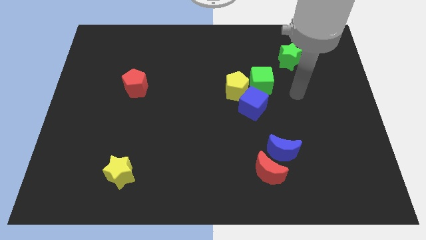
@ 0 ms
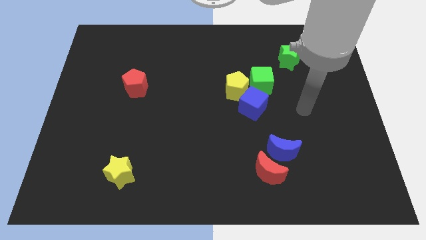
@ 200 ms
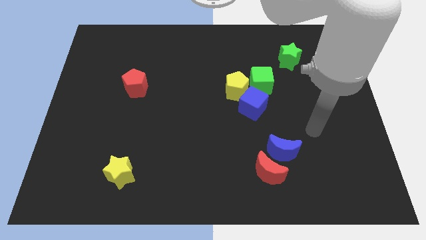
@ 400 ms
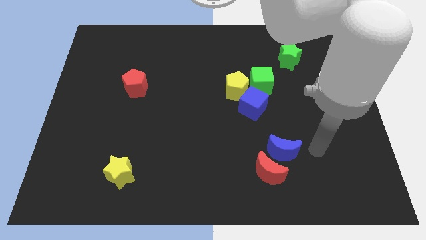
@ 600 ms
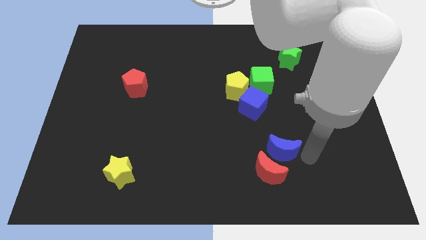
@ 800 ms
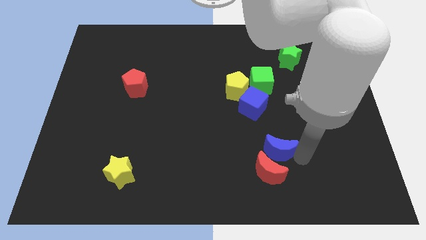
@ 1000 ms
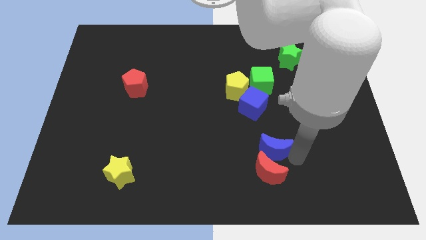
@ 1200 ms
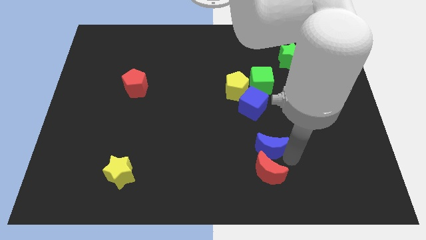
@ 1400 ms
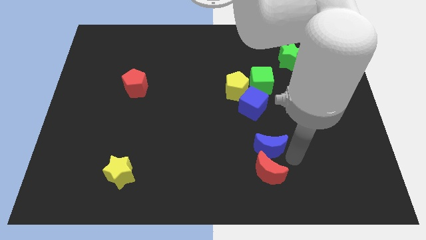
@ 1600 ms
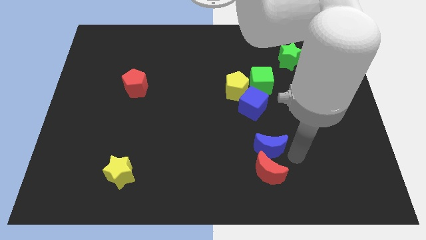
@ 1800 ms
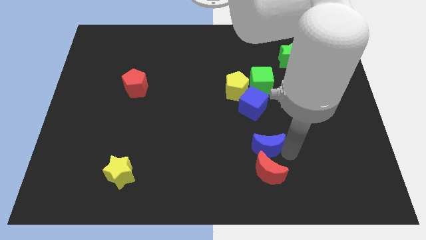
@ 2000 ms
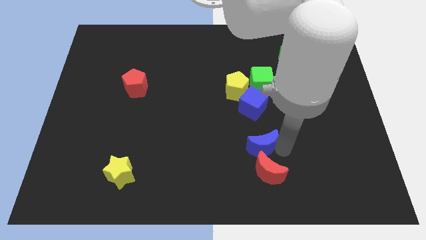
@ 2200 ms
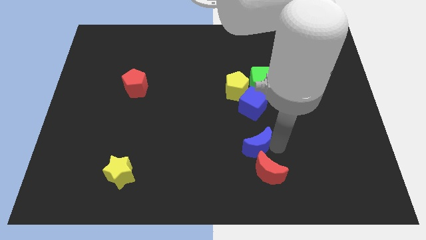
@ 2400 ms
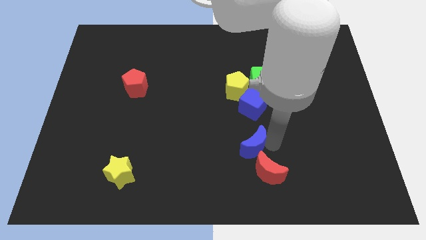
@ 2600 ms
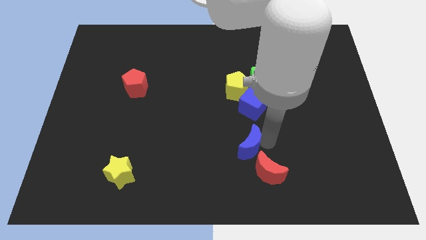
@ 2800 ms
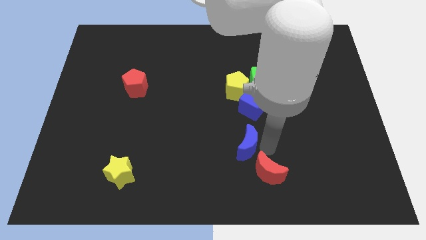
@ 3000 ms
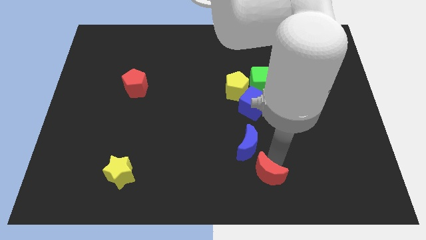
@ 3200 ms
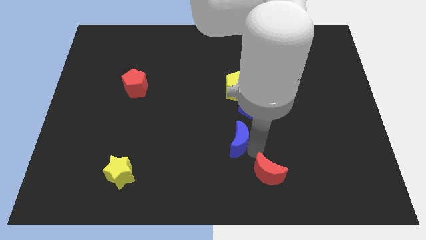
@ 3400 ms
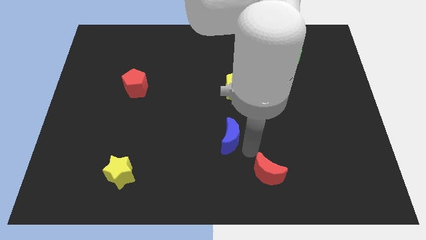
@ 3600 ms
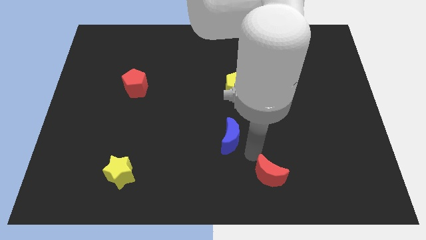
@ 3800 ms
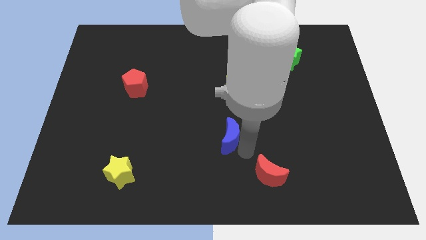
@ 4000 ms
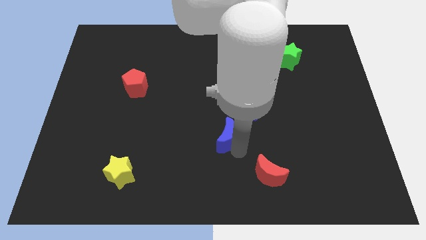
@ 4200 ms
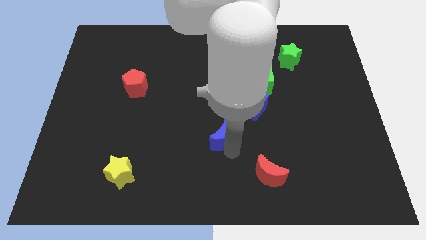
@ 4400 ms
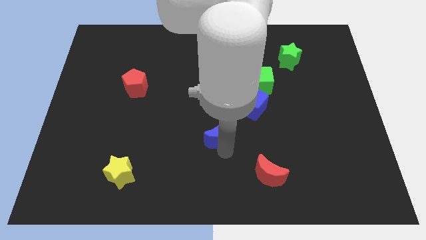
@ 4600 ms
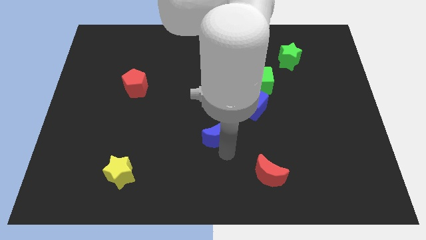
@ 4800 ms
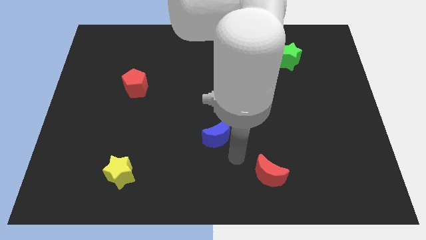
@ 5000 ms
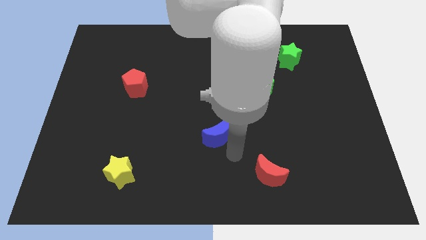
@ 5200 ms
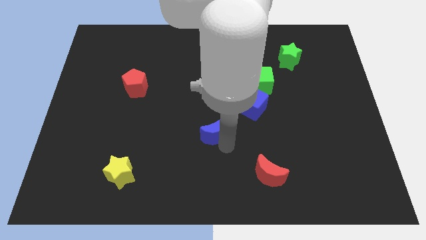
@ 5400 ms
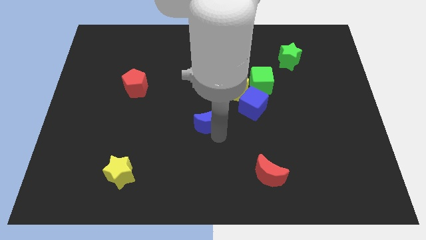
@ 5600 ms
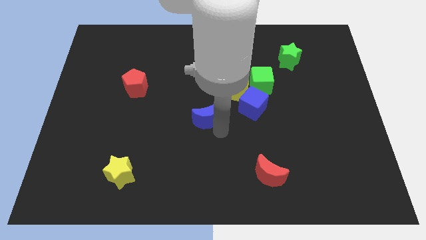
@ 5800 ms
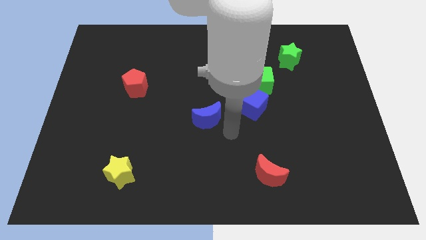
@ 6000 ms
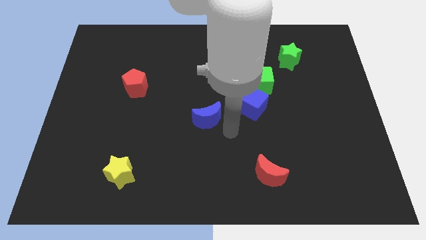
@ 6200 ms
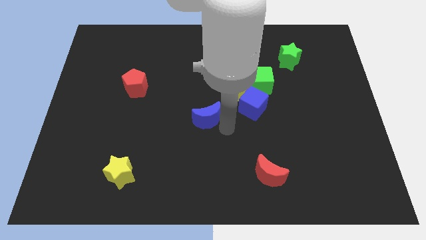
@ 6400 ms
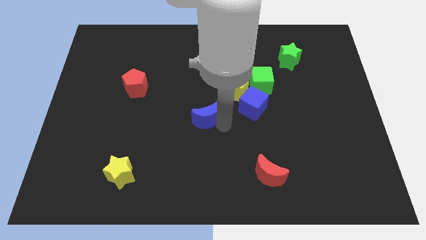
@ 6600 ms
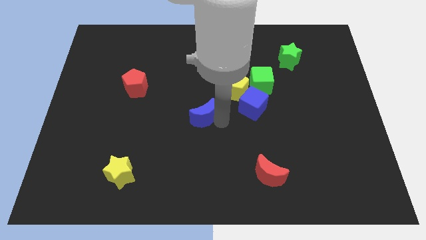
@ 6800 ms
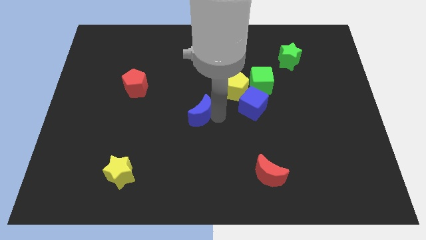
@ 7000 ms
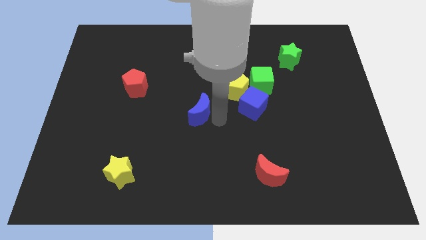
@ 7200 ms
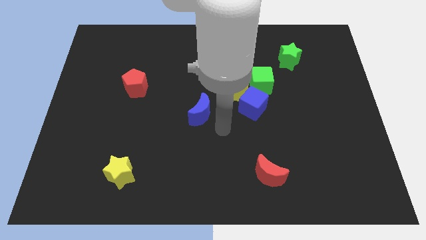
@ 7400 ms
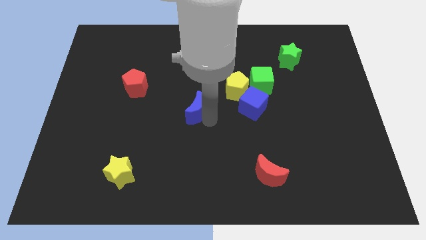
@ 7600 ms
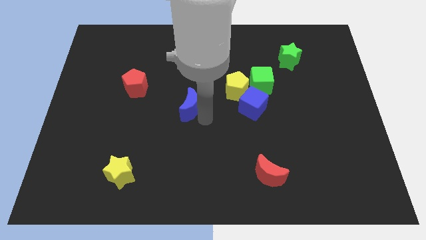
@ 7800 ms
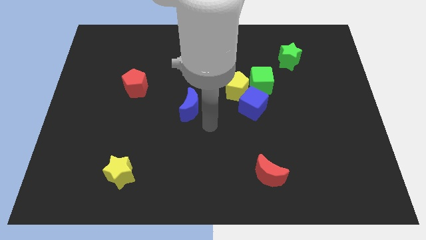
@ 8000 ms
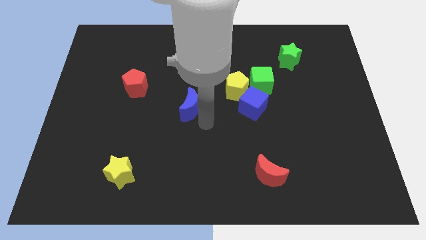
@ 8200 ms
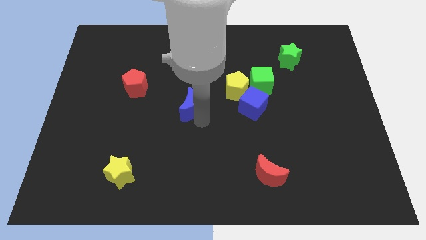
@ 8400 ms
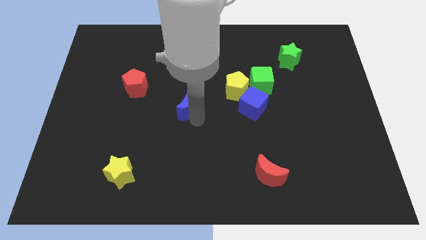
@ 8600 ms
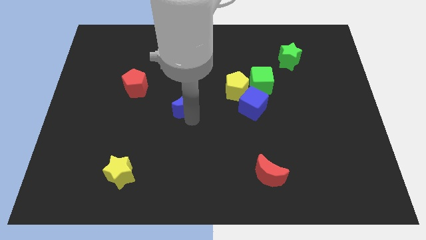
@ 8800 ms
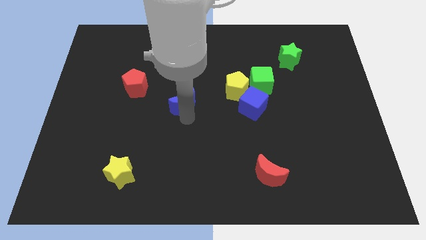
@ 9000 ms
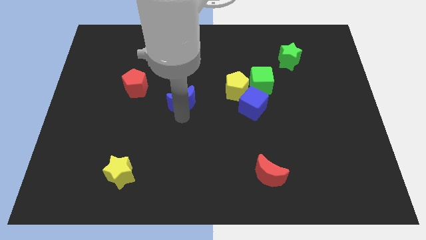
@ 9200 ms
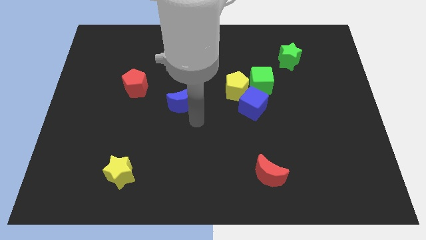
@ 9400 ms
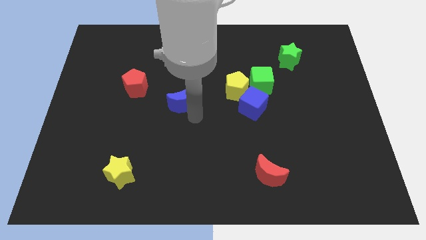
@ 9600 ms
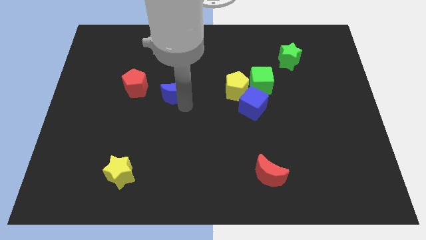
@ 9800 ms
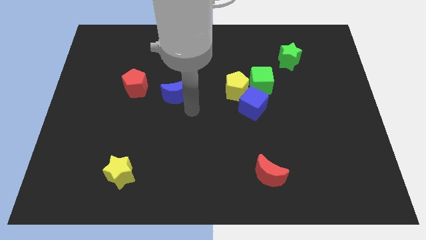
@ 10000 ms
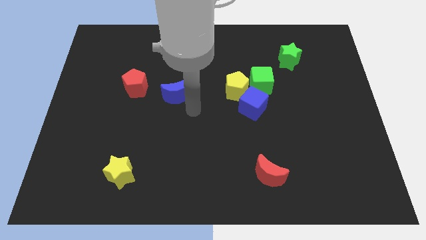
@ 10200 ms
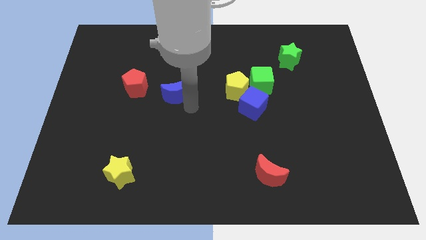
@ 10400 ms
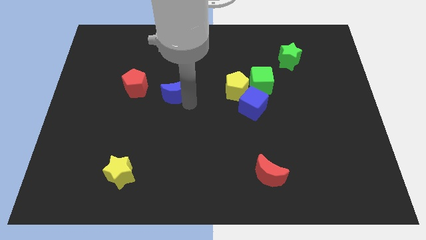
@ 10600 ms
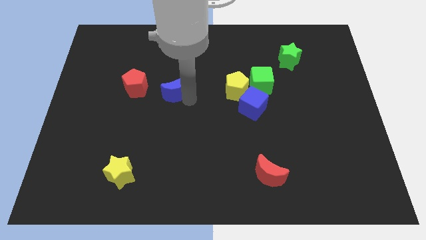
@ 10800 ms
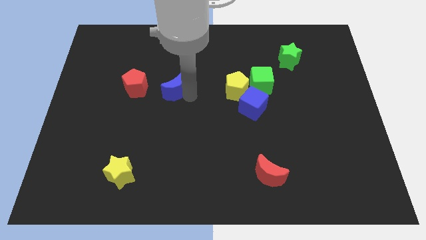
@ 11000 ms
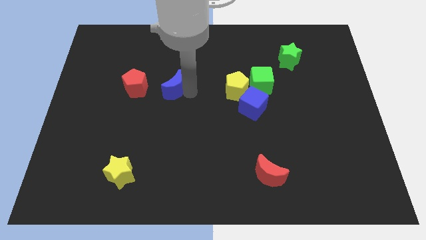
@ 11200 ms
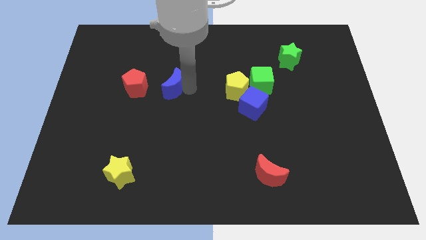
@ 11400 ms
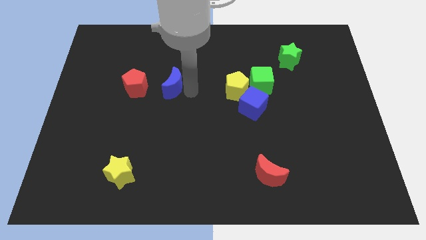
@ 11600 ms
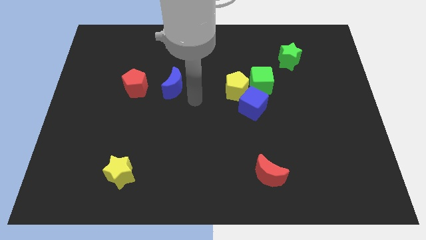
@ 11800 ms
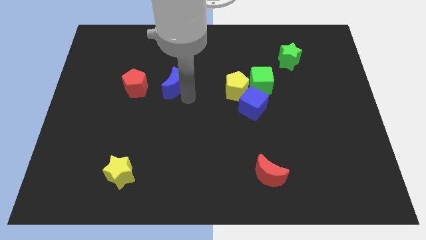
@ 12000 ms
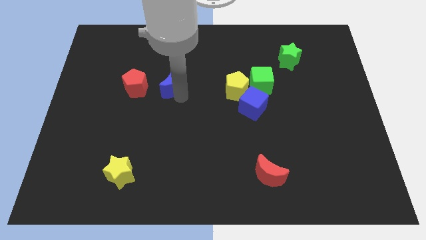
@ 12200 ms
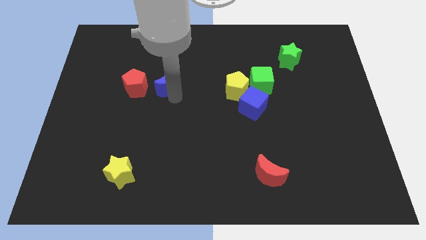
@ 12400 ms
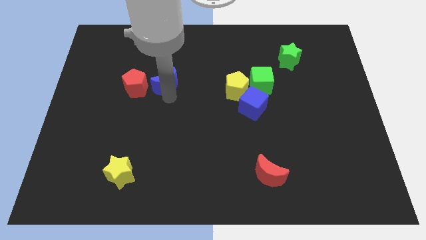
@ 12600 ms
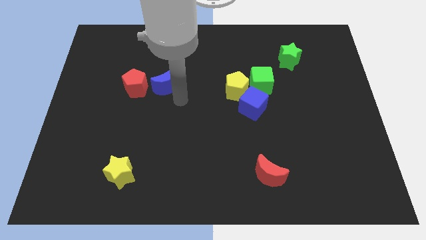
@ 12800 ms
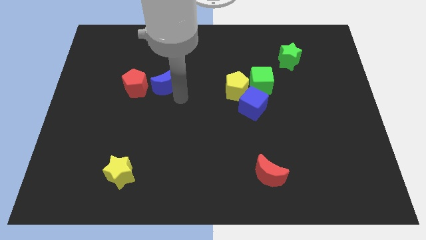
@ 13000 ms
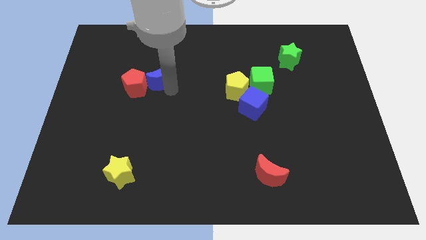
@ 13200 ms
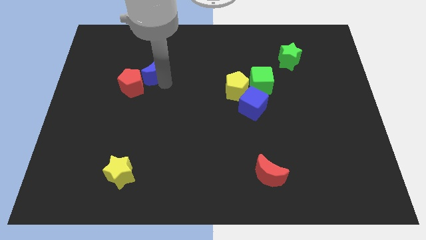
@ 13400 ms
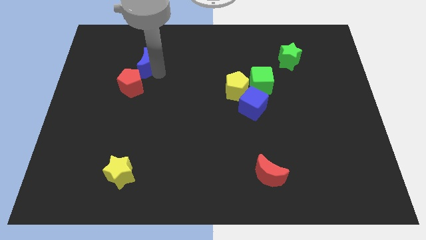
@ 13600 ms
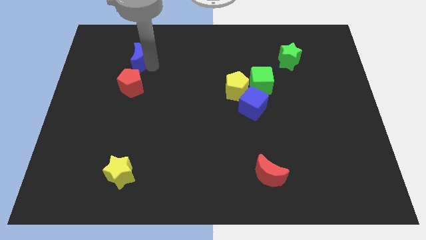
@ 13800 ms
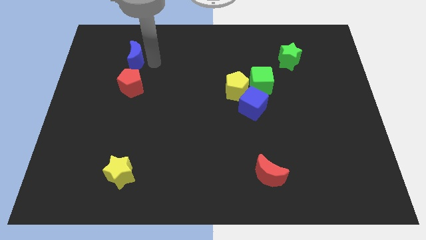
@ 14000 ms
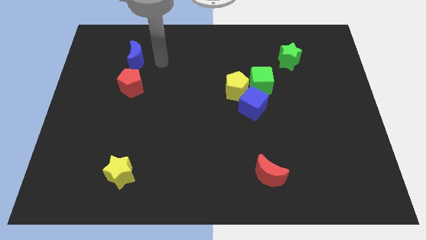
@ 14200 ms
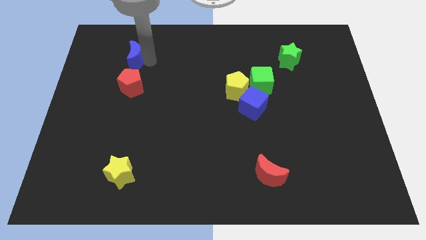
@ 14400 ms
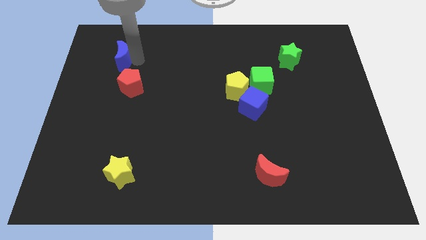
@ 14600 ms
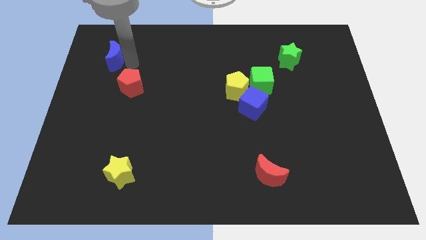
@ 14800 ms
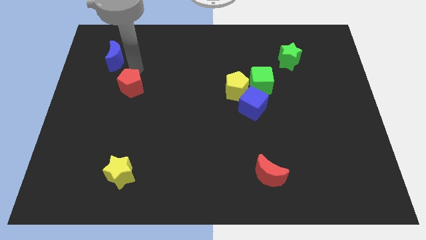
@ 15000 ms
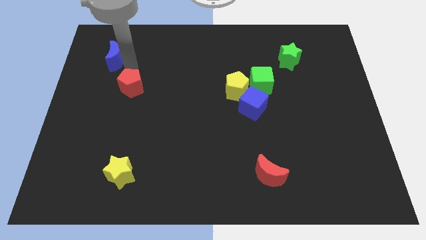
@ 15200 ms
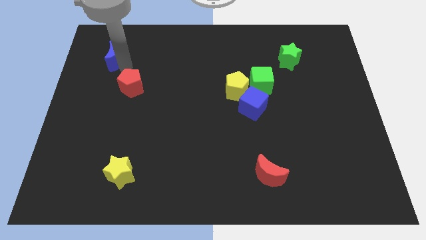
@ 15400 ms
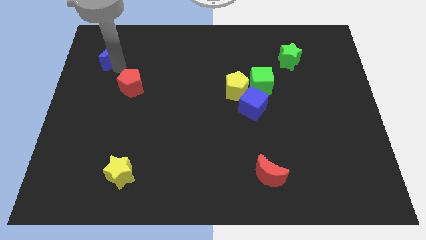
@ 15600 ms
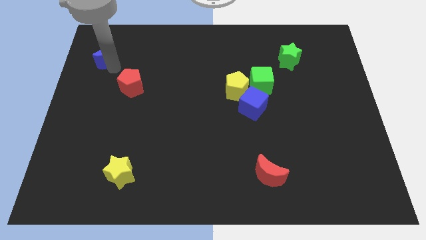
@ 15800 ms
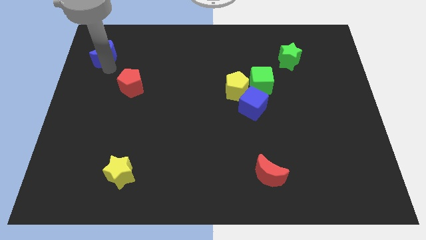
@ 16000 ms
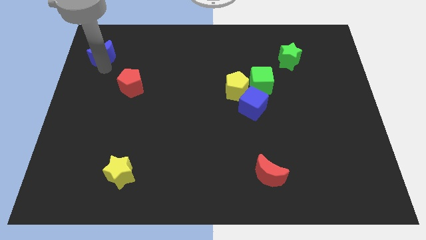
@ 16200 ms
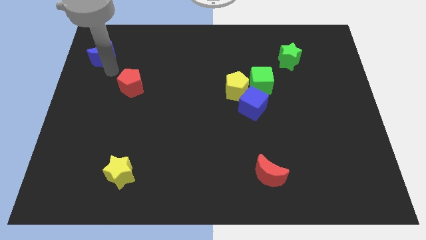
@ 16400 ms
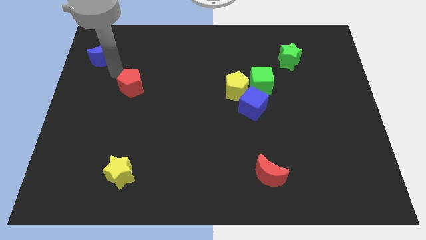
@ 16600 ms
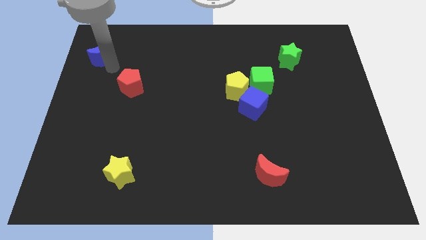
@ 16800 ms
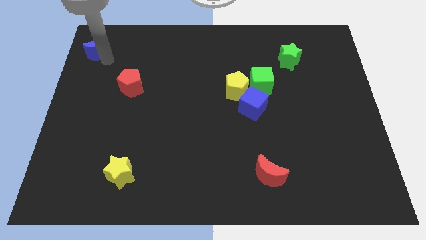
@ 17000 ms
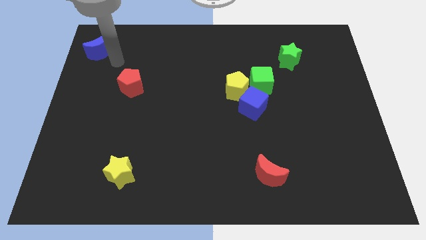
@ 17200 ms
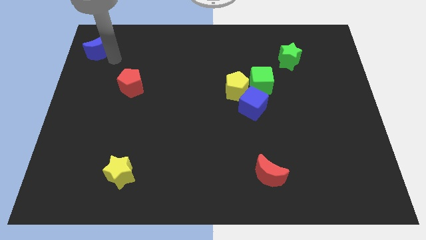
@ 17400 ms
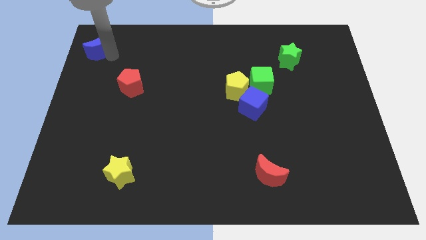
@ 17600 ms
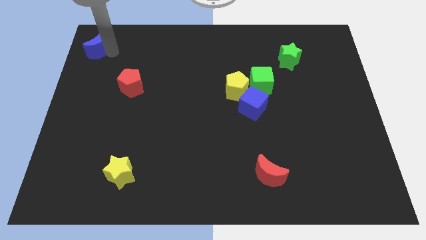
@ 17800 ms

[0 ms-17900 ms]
push the blue moon to the upper left corner
